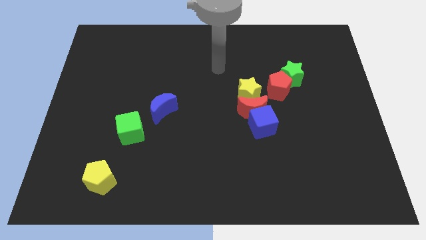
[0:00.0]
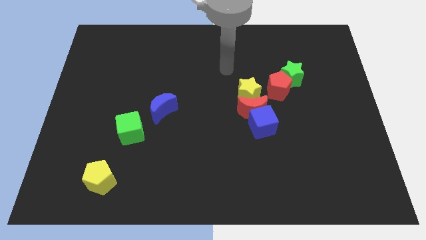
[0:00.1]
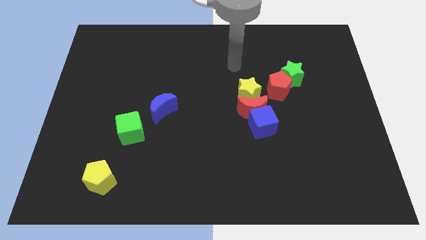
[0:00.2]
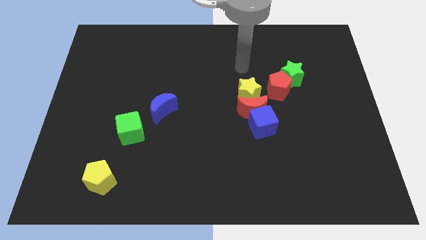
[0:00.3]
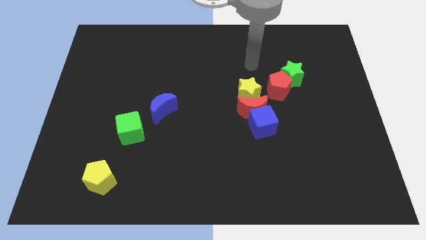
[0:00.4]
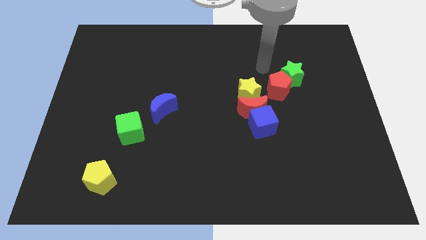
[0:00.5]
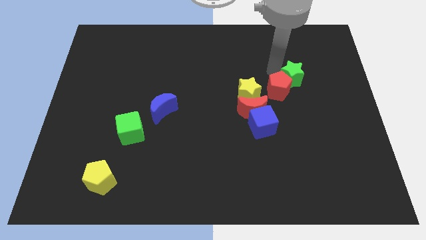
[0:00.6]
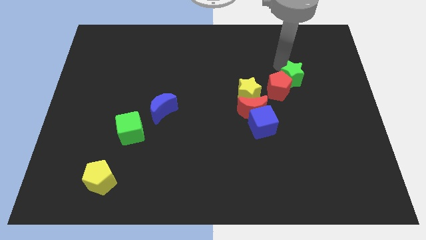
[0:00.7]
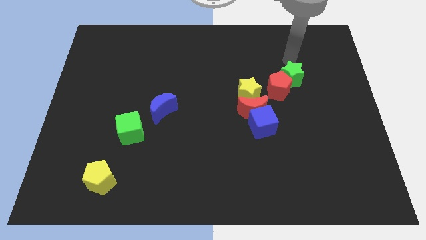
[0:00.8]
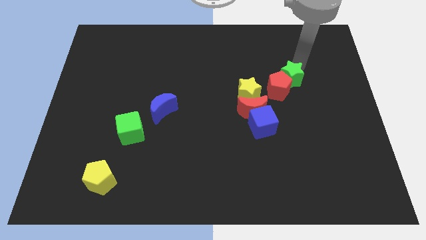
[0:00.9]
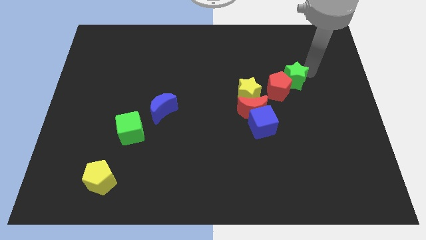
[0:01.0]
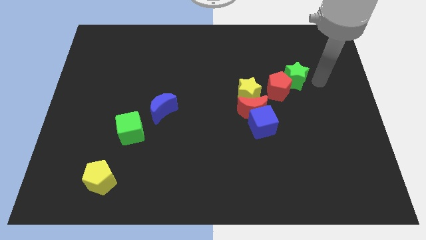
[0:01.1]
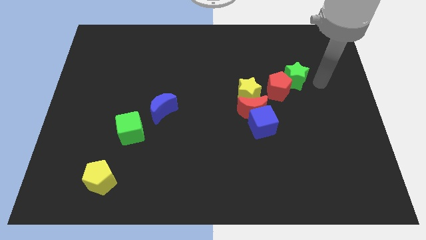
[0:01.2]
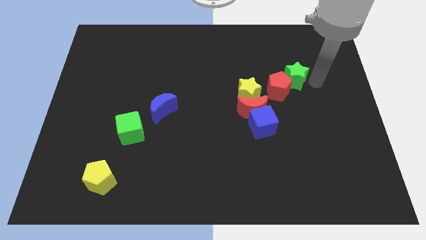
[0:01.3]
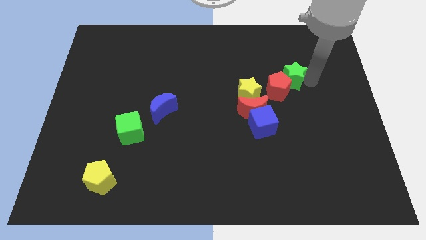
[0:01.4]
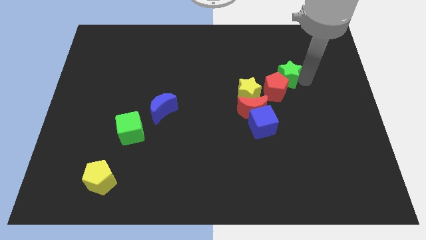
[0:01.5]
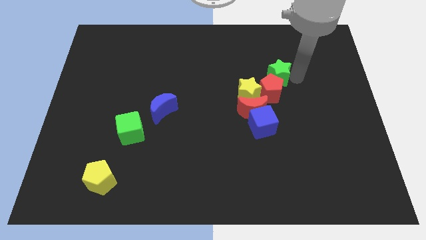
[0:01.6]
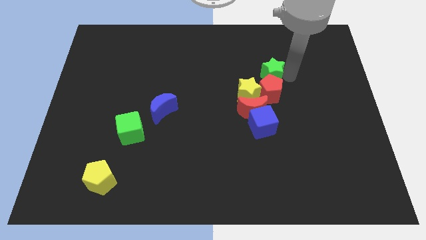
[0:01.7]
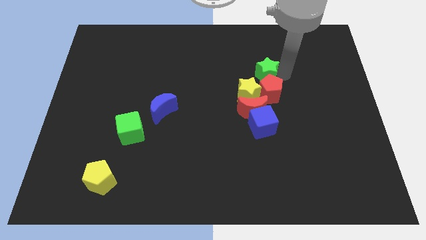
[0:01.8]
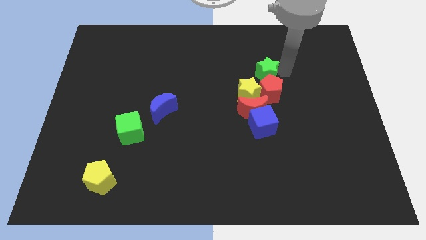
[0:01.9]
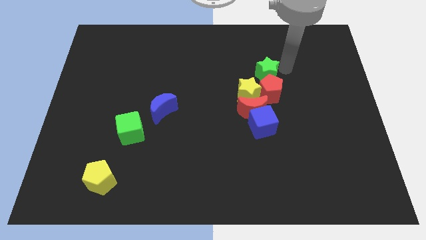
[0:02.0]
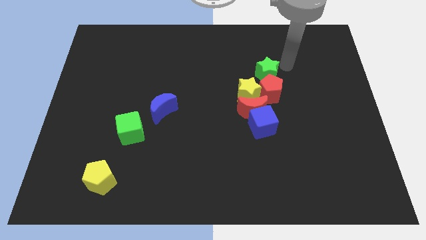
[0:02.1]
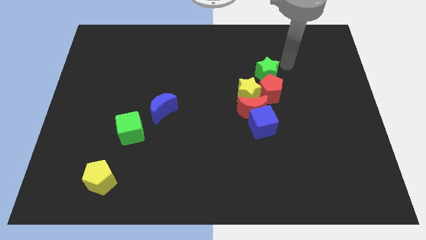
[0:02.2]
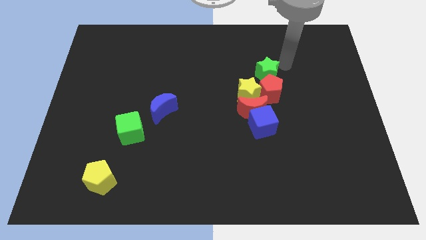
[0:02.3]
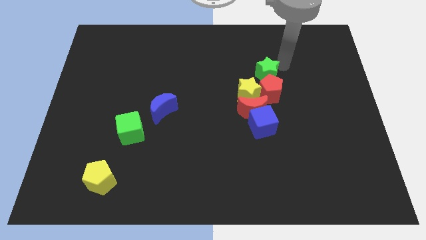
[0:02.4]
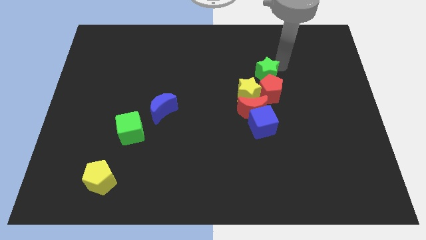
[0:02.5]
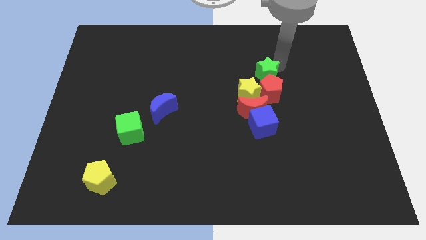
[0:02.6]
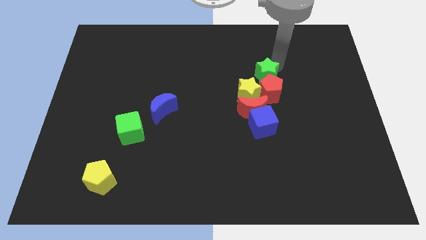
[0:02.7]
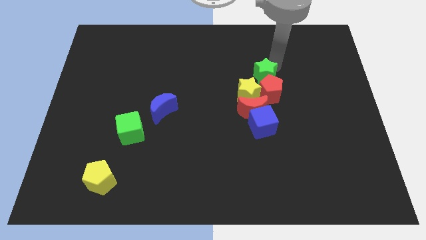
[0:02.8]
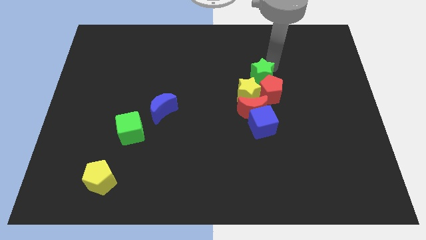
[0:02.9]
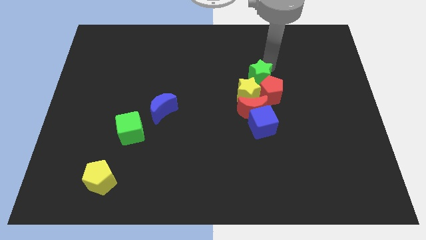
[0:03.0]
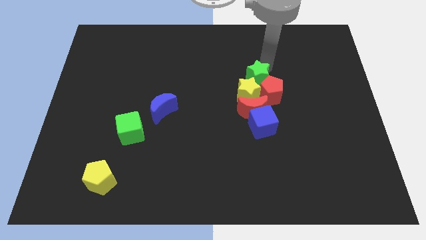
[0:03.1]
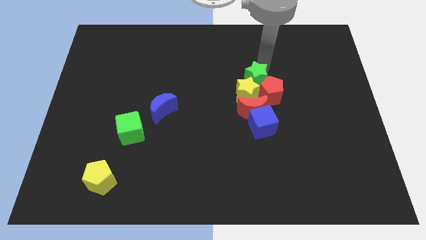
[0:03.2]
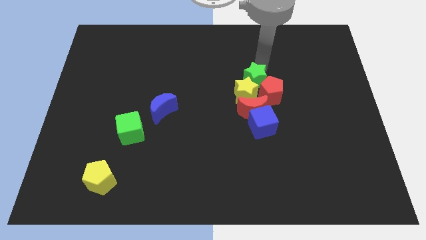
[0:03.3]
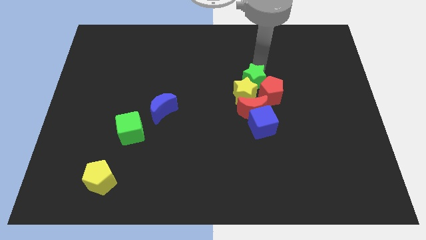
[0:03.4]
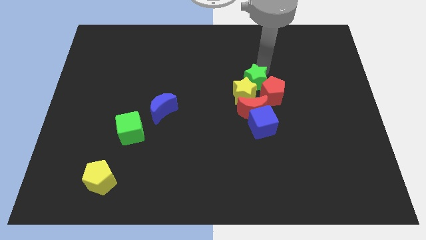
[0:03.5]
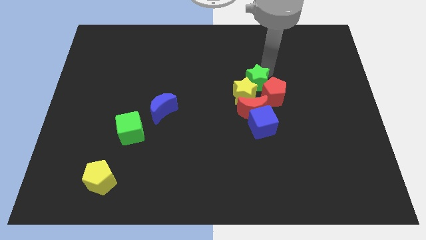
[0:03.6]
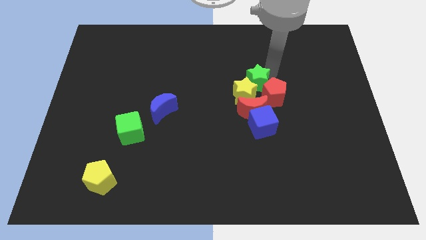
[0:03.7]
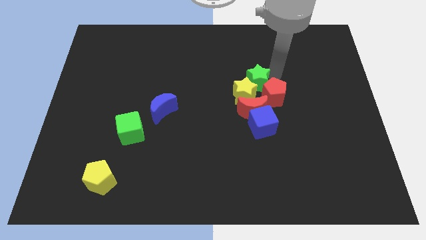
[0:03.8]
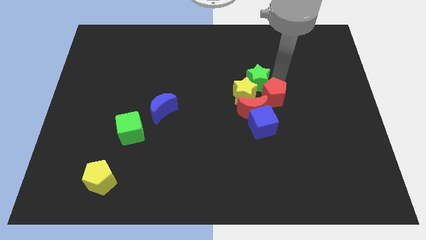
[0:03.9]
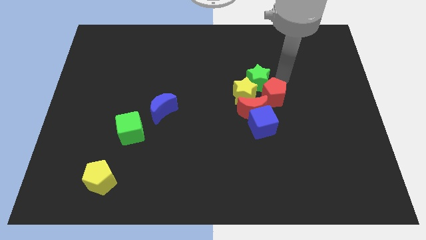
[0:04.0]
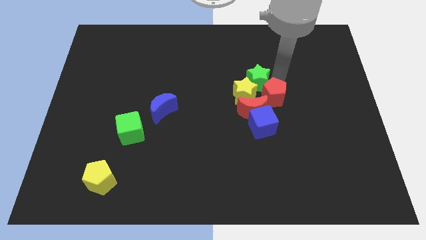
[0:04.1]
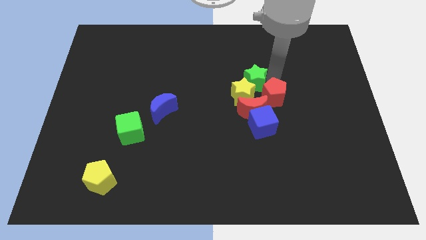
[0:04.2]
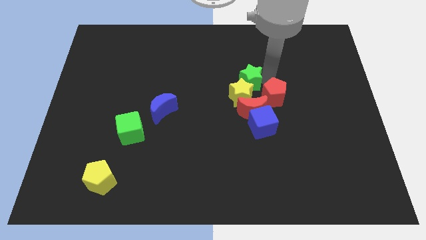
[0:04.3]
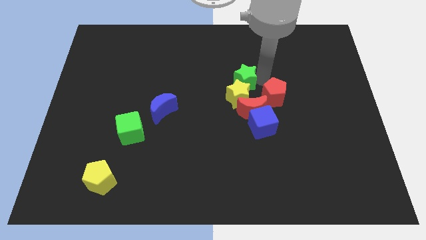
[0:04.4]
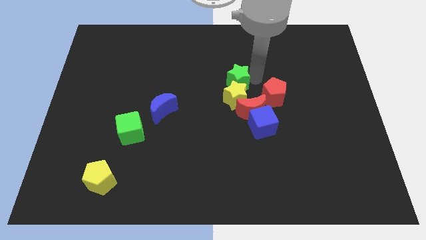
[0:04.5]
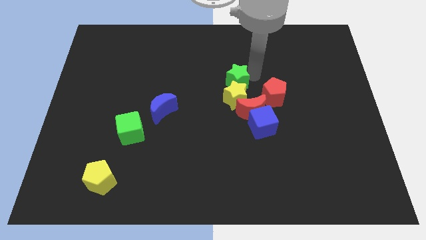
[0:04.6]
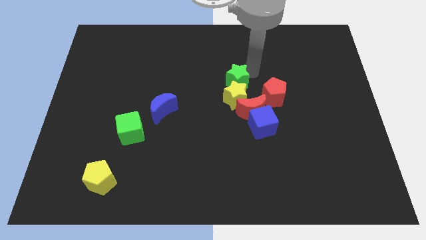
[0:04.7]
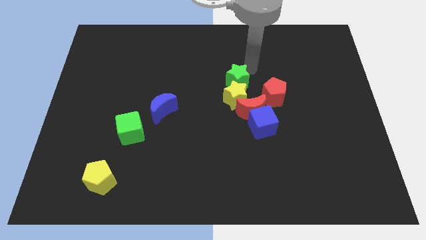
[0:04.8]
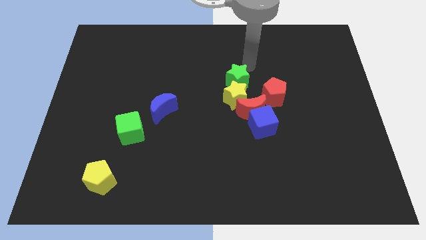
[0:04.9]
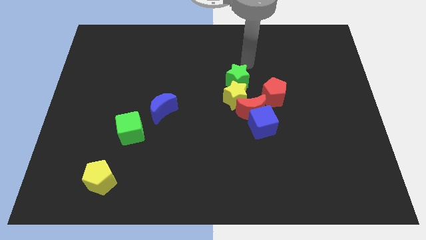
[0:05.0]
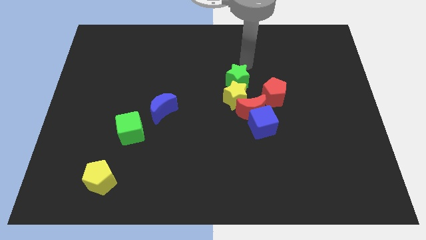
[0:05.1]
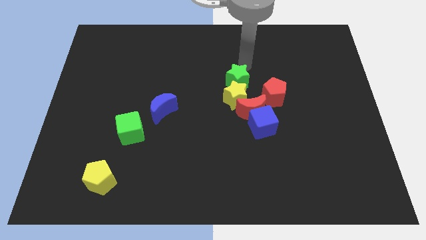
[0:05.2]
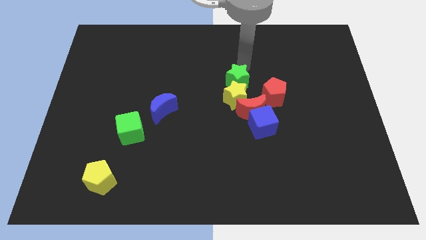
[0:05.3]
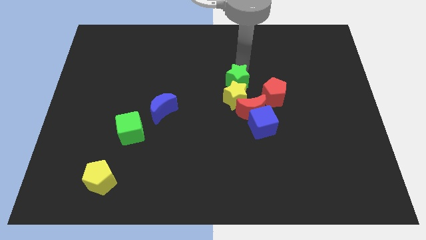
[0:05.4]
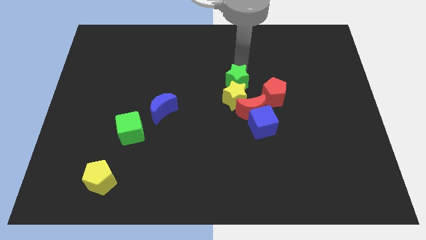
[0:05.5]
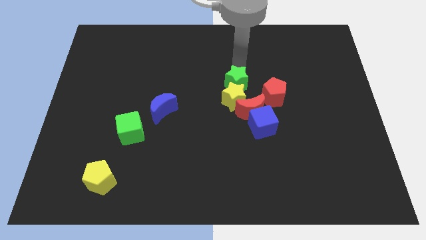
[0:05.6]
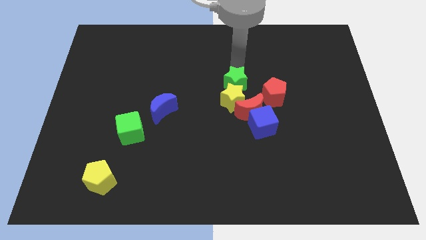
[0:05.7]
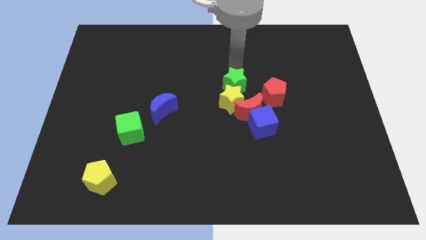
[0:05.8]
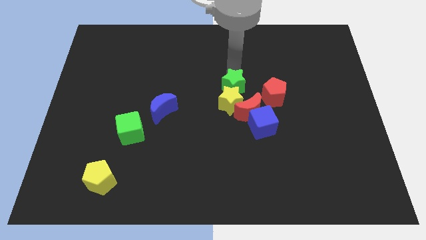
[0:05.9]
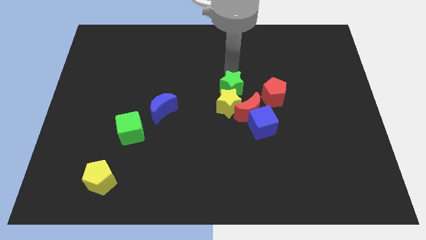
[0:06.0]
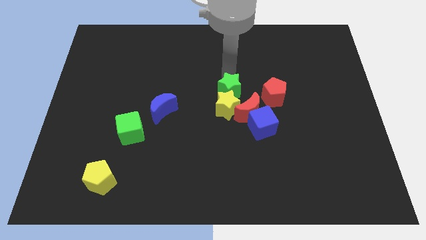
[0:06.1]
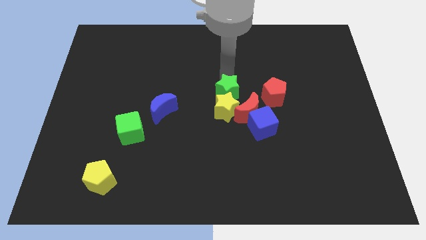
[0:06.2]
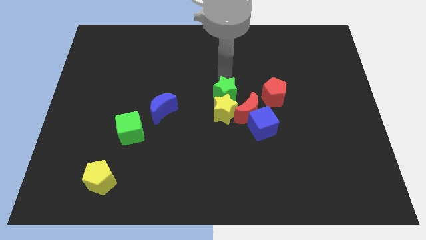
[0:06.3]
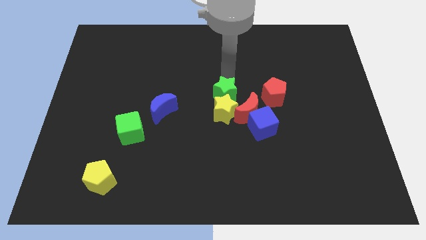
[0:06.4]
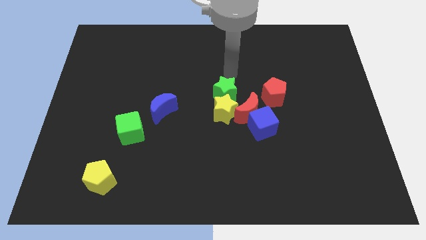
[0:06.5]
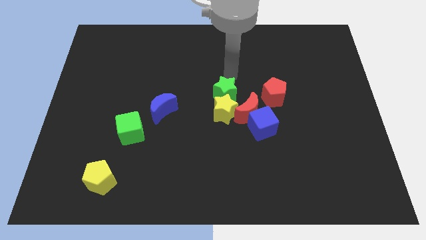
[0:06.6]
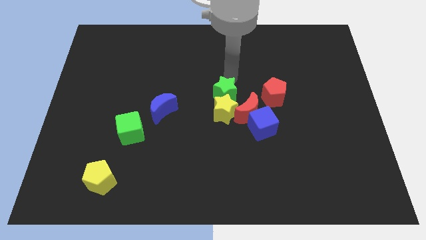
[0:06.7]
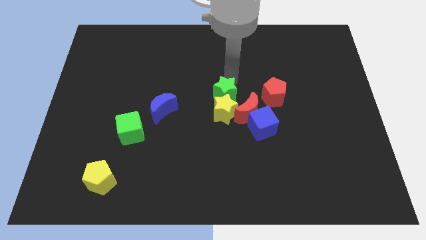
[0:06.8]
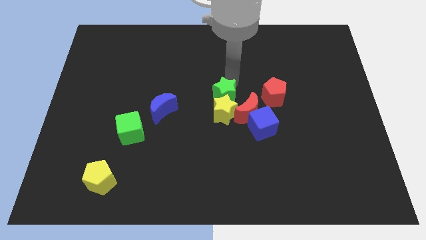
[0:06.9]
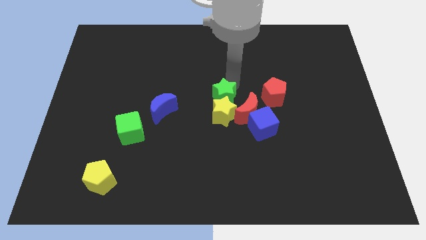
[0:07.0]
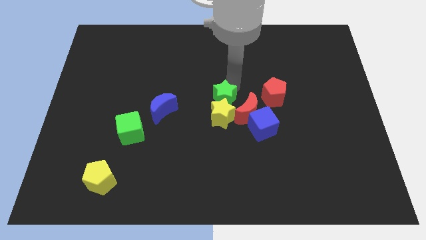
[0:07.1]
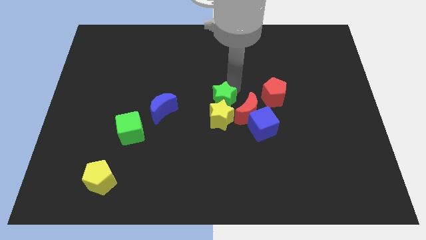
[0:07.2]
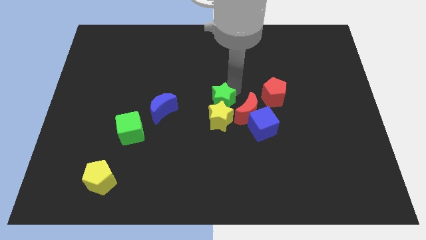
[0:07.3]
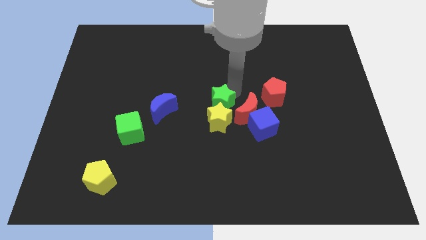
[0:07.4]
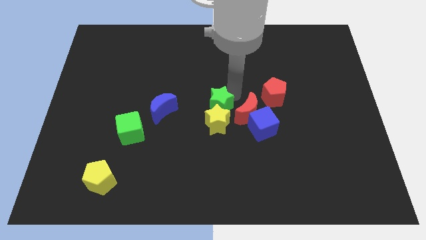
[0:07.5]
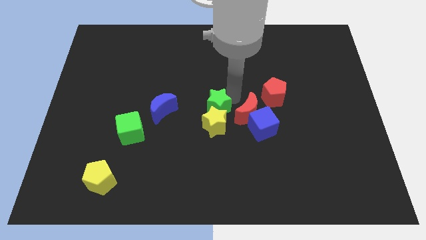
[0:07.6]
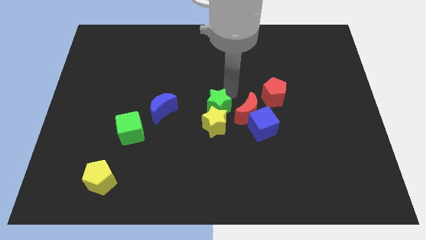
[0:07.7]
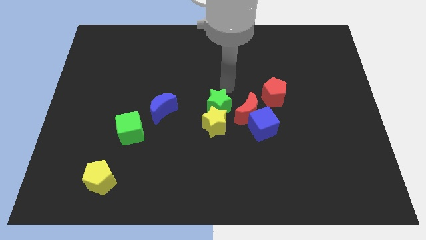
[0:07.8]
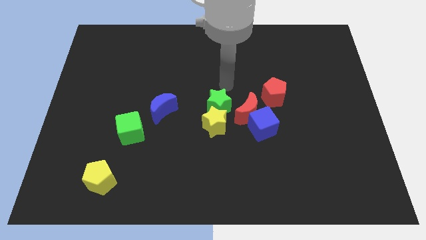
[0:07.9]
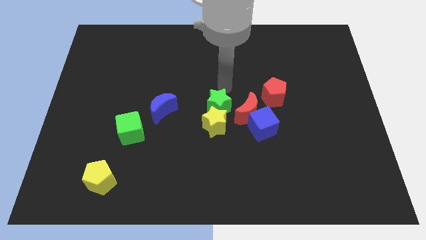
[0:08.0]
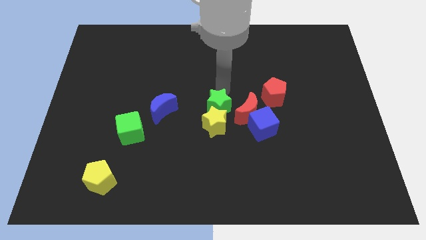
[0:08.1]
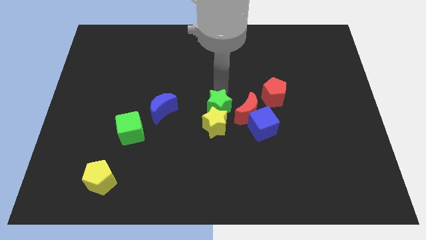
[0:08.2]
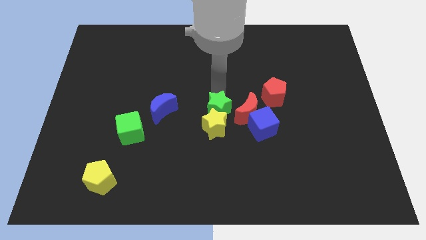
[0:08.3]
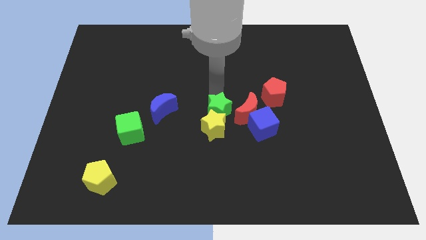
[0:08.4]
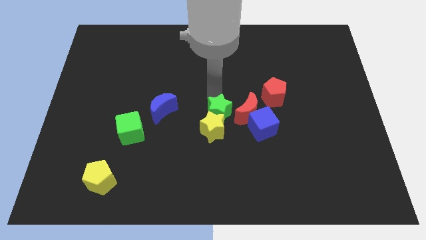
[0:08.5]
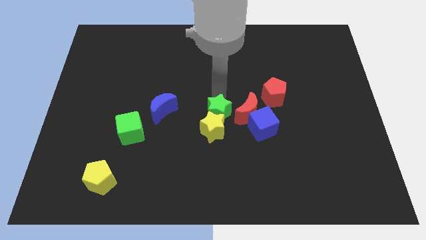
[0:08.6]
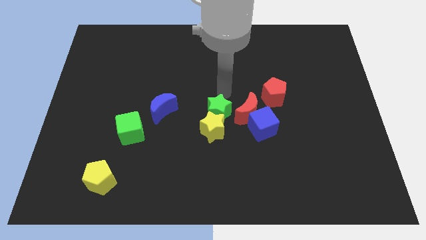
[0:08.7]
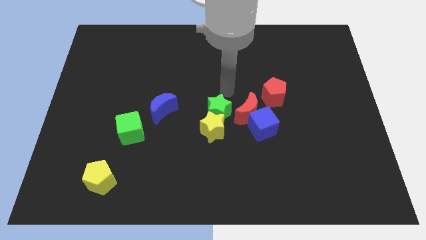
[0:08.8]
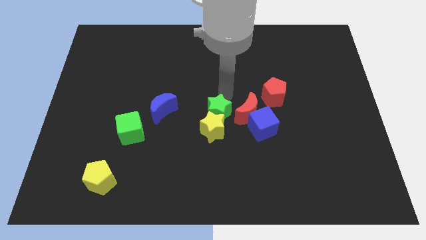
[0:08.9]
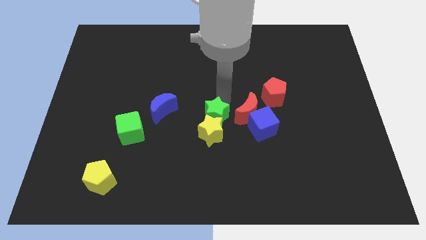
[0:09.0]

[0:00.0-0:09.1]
move the green star downwards and then to the left
